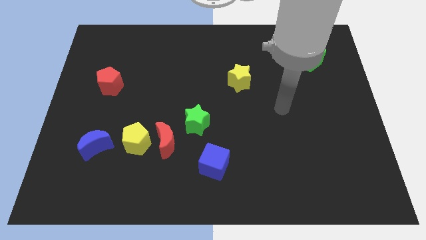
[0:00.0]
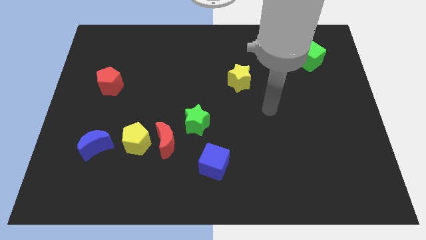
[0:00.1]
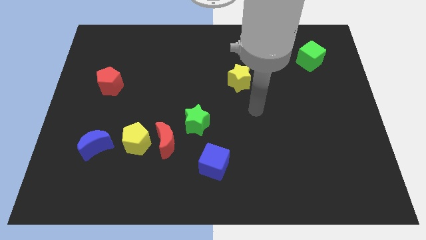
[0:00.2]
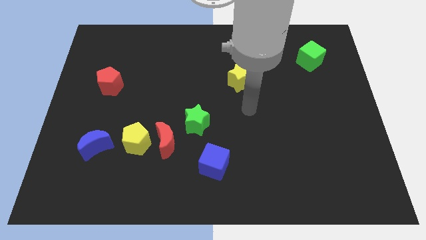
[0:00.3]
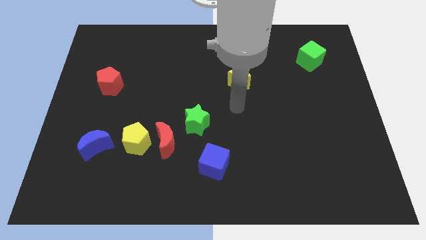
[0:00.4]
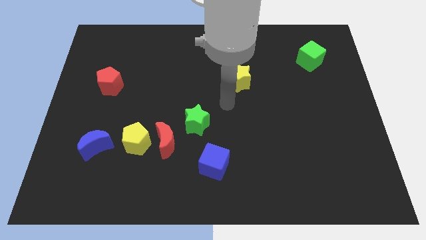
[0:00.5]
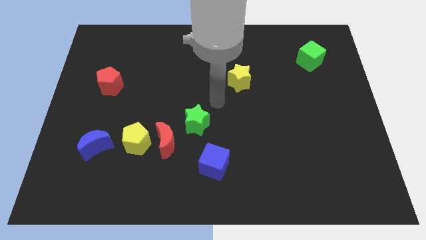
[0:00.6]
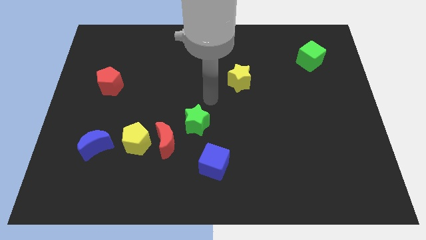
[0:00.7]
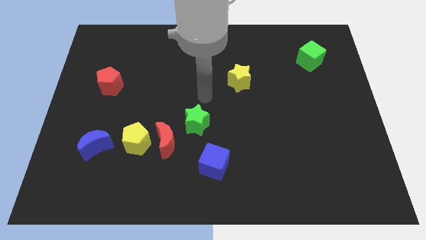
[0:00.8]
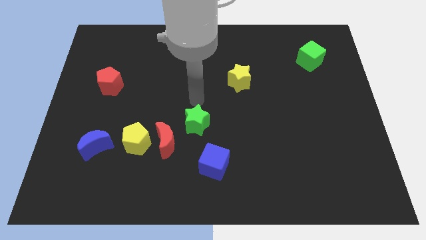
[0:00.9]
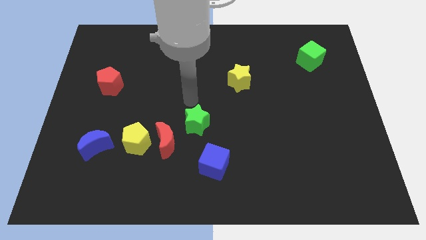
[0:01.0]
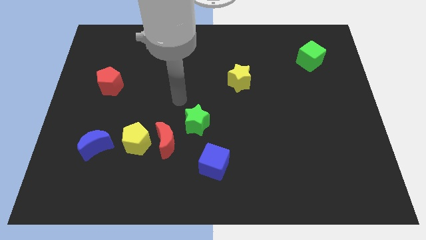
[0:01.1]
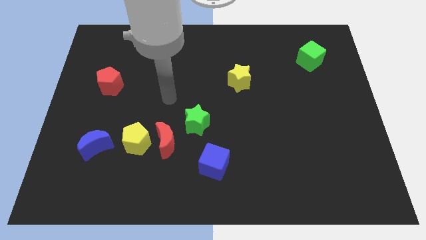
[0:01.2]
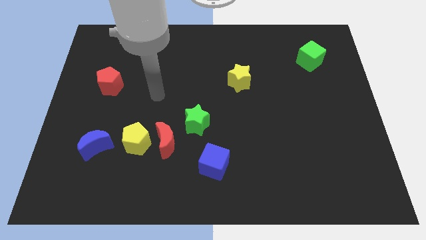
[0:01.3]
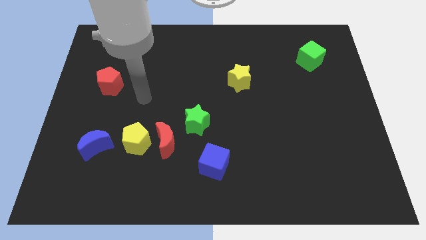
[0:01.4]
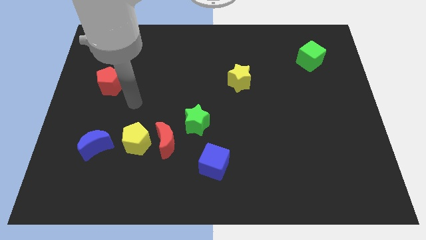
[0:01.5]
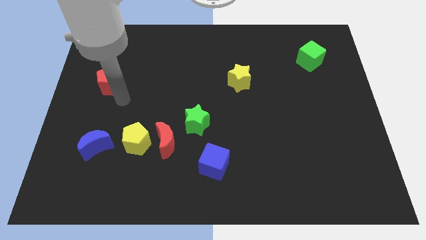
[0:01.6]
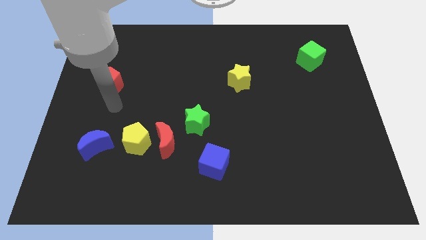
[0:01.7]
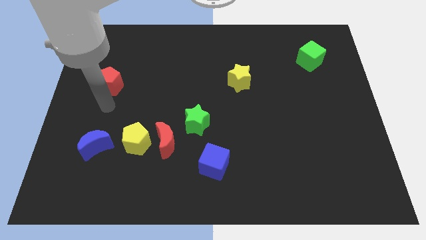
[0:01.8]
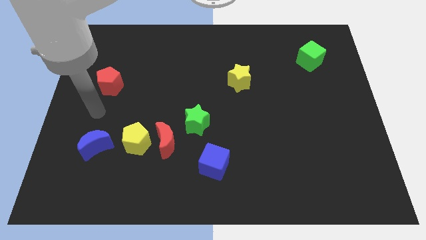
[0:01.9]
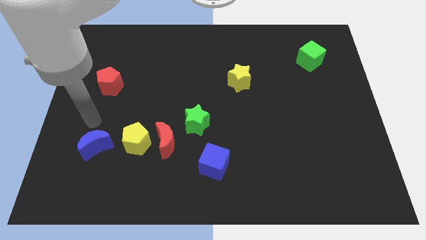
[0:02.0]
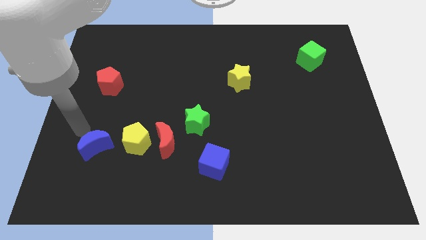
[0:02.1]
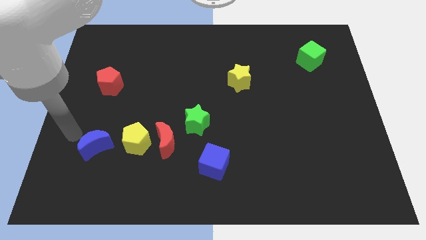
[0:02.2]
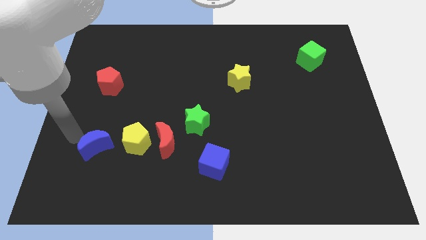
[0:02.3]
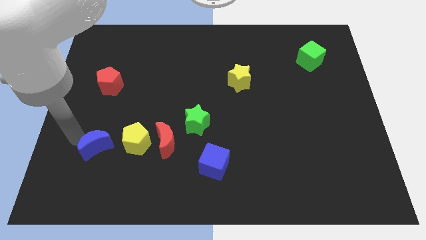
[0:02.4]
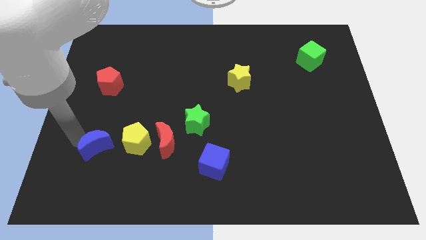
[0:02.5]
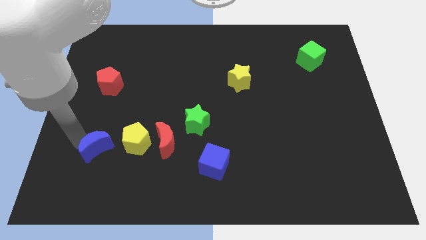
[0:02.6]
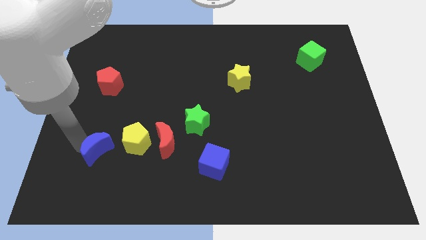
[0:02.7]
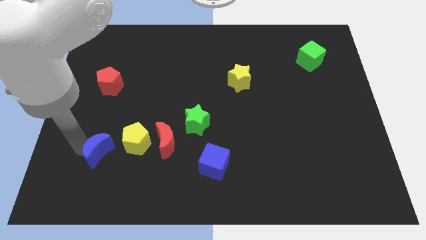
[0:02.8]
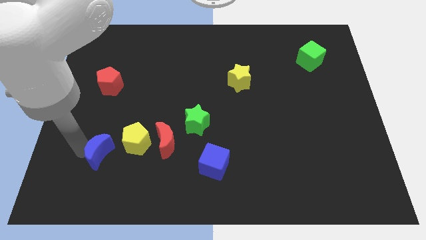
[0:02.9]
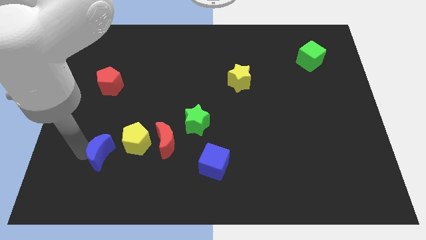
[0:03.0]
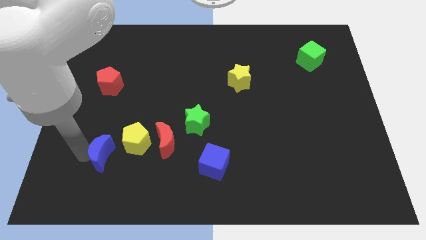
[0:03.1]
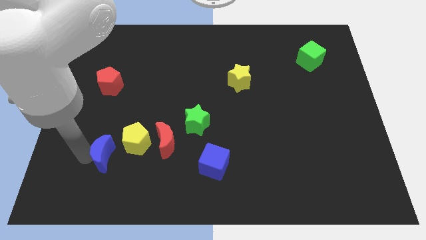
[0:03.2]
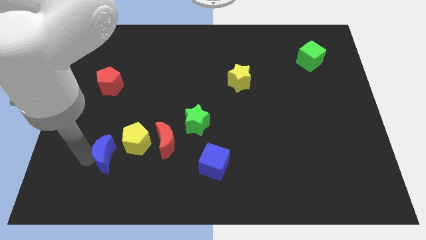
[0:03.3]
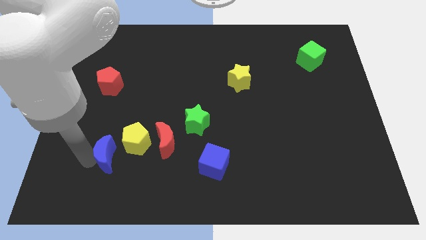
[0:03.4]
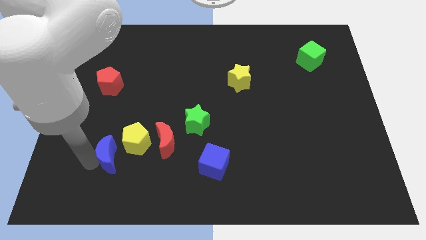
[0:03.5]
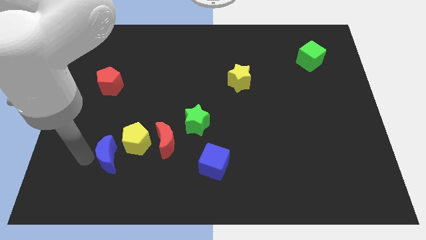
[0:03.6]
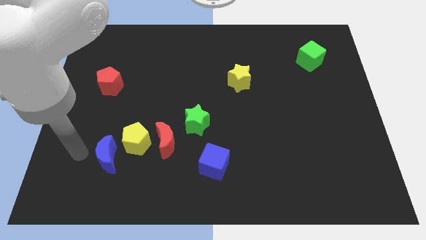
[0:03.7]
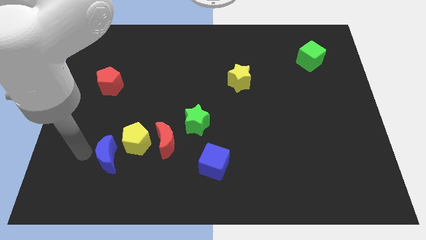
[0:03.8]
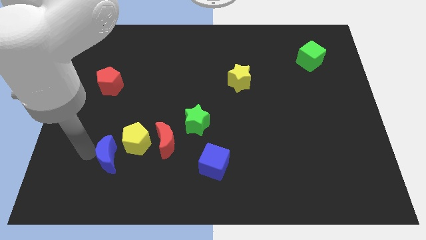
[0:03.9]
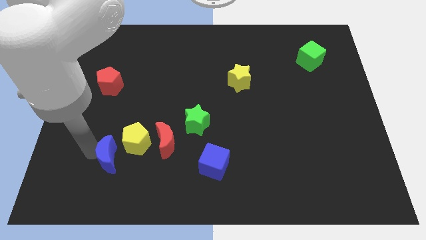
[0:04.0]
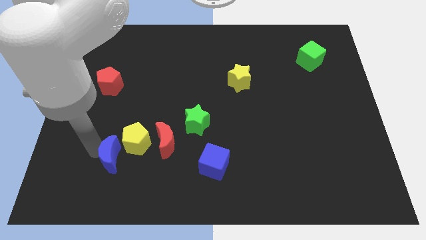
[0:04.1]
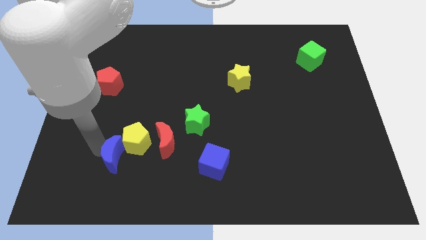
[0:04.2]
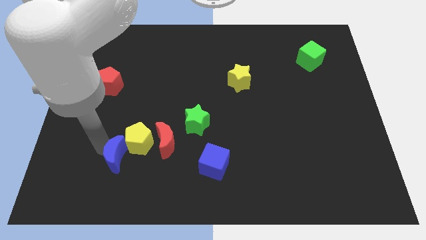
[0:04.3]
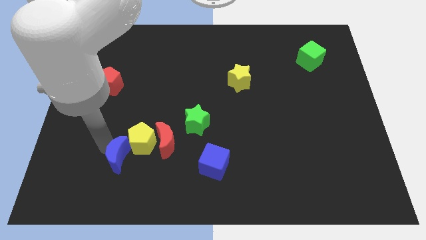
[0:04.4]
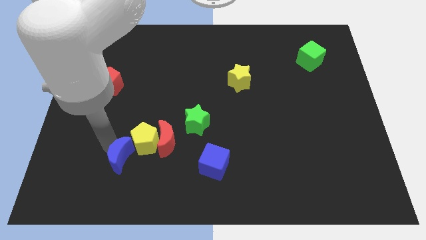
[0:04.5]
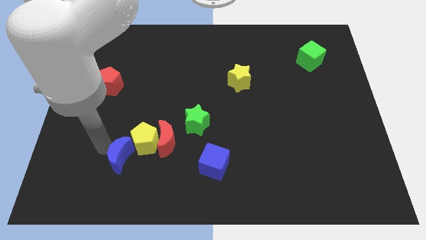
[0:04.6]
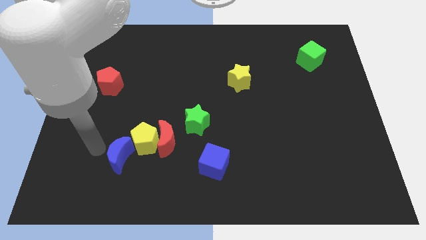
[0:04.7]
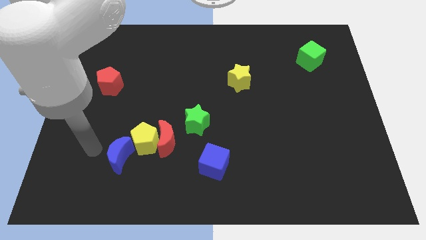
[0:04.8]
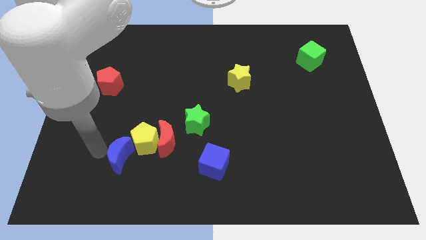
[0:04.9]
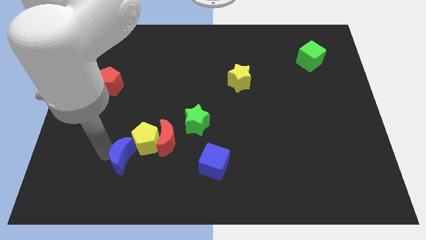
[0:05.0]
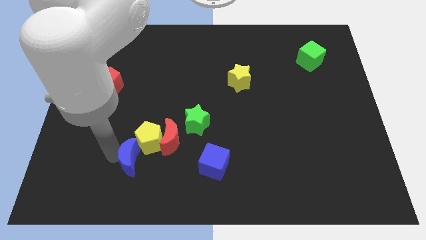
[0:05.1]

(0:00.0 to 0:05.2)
slide the blue moon slightly right

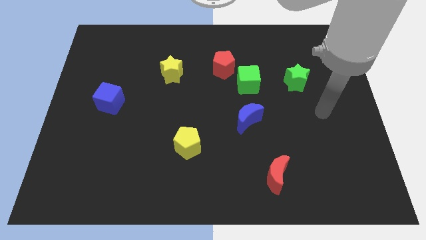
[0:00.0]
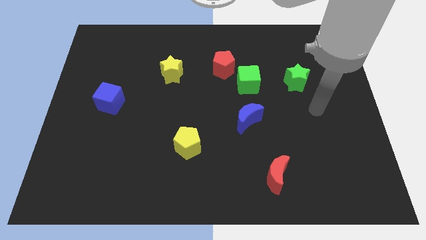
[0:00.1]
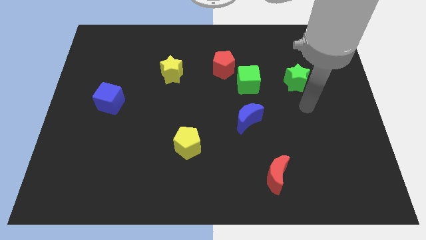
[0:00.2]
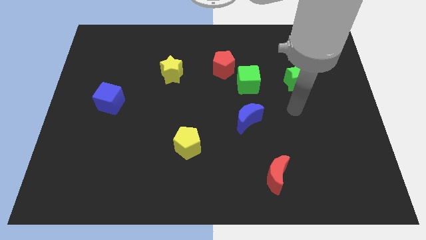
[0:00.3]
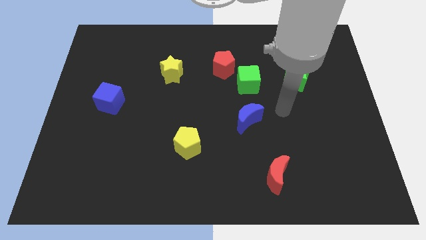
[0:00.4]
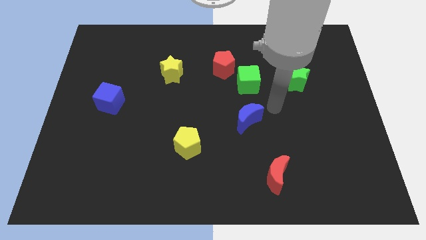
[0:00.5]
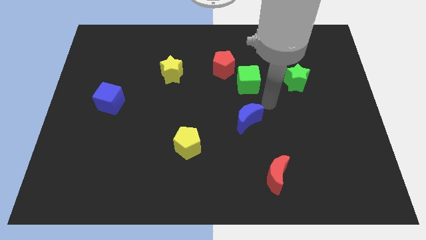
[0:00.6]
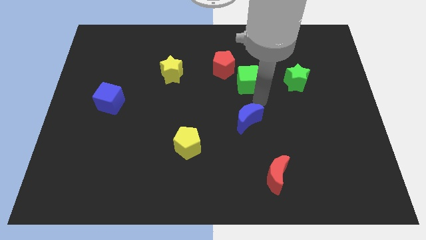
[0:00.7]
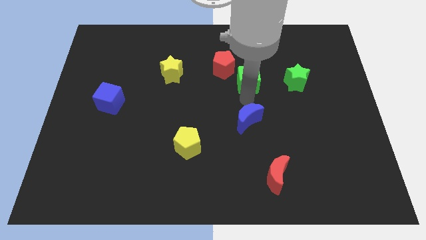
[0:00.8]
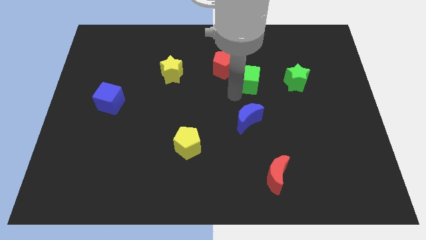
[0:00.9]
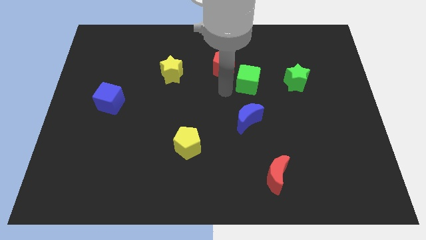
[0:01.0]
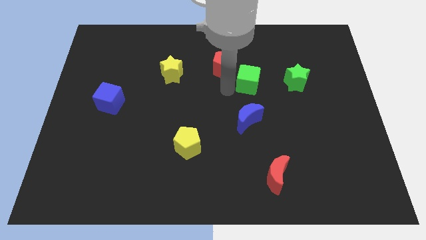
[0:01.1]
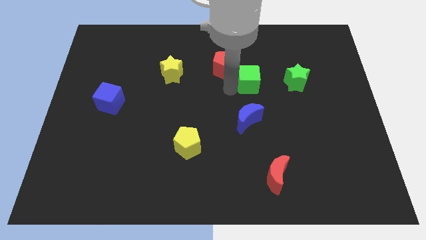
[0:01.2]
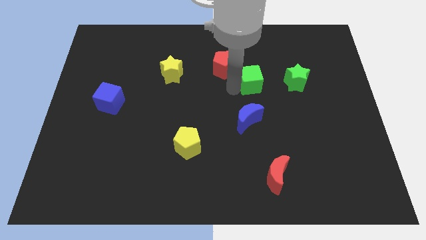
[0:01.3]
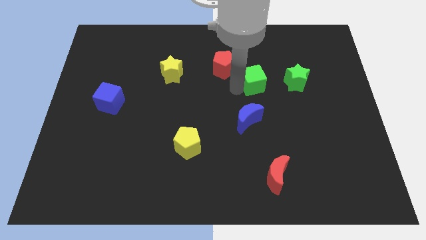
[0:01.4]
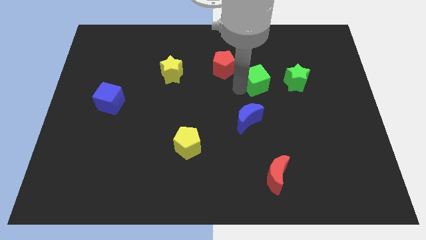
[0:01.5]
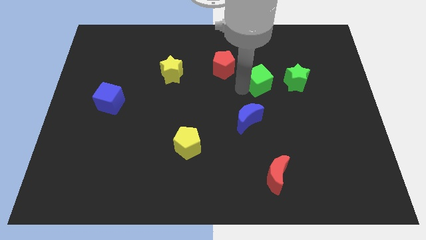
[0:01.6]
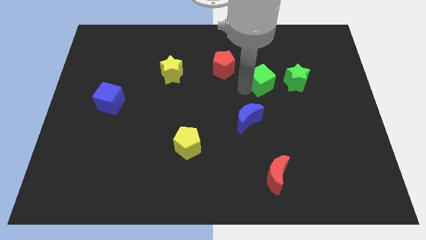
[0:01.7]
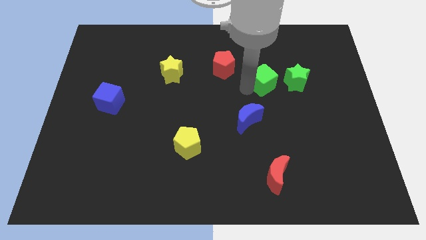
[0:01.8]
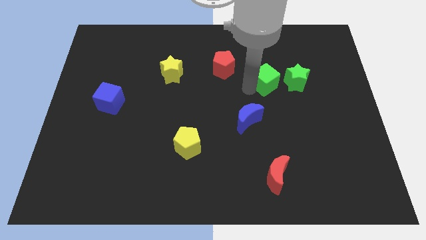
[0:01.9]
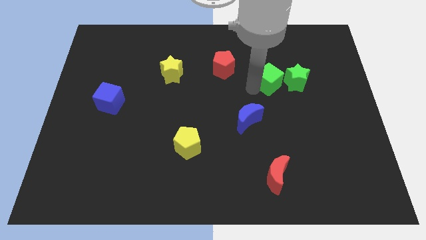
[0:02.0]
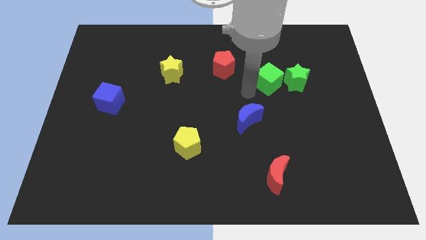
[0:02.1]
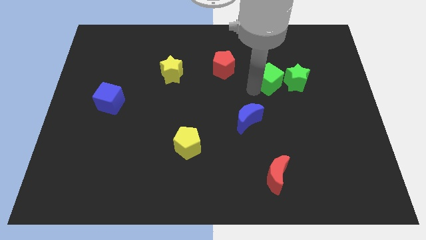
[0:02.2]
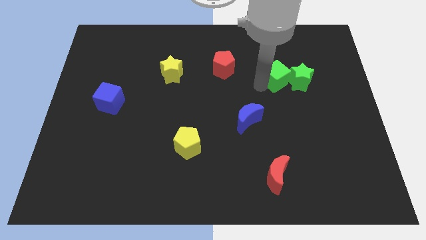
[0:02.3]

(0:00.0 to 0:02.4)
slightly move the green cube right

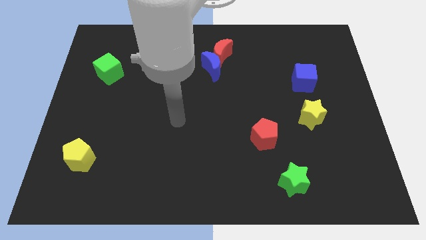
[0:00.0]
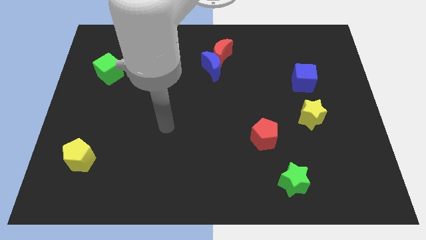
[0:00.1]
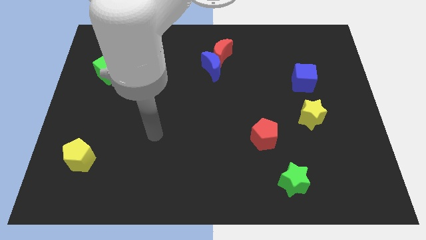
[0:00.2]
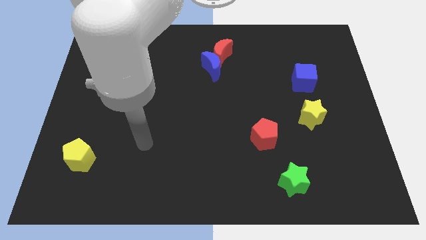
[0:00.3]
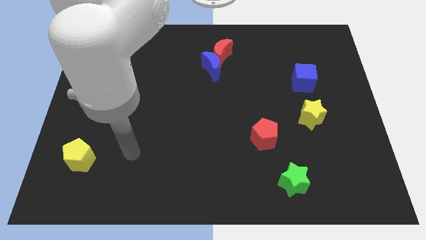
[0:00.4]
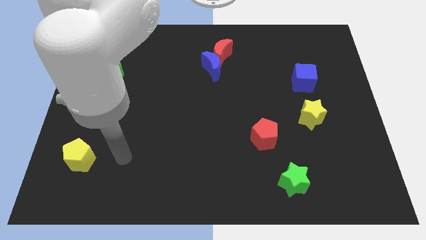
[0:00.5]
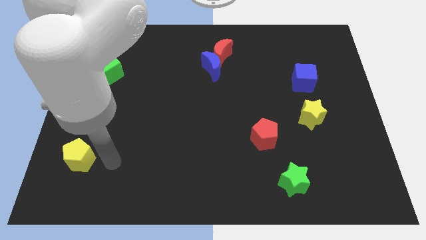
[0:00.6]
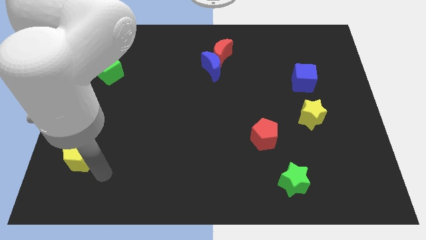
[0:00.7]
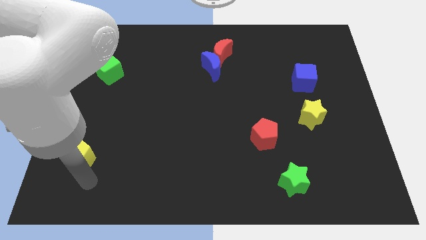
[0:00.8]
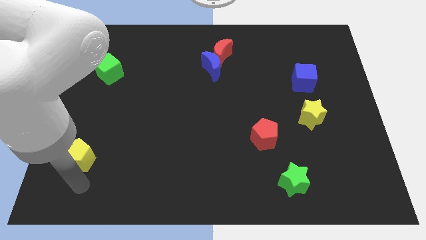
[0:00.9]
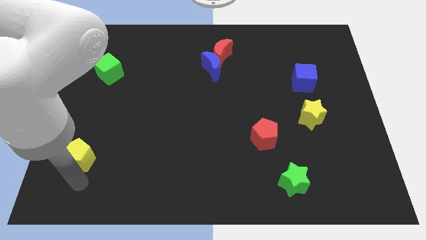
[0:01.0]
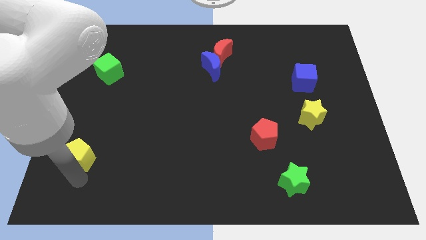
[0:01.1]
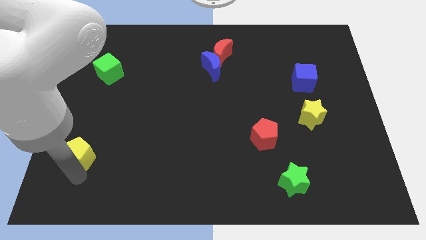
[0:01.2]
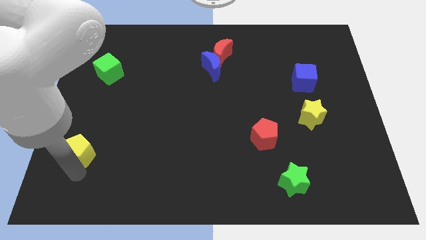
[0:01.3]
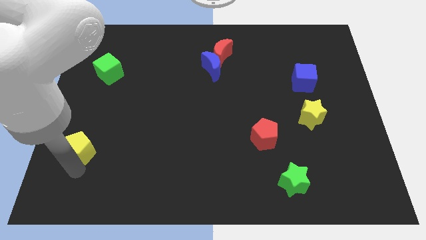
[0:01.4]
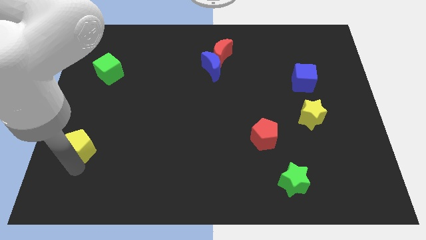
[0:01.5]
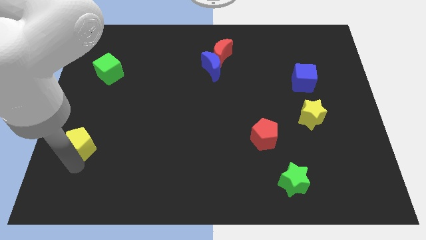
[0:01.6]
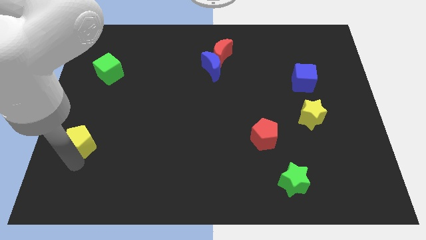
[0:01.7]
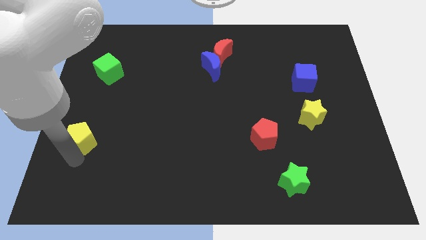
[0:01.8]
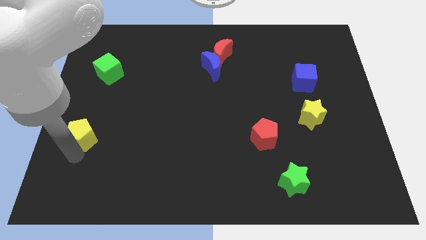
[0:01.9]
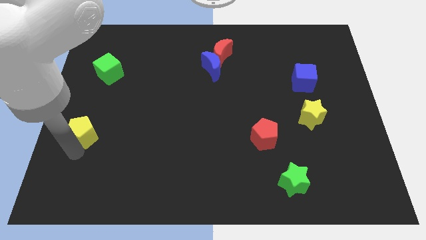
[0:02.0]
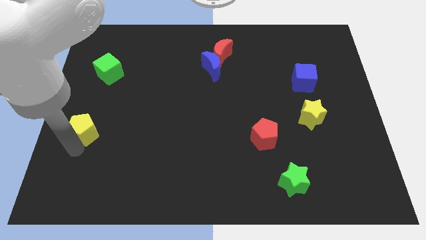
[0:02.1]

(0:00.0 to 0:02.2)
move the yellow pentagon up slightly
